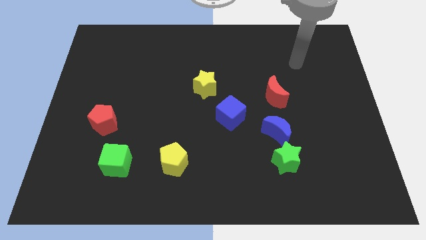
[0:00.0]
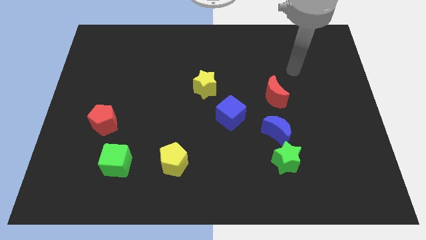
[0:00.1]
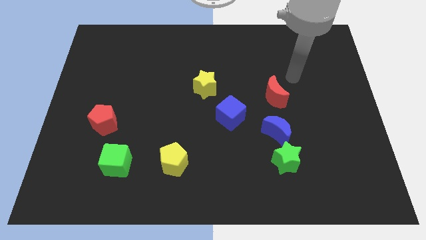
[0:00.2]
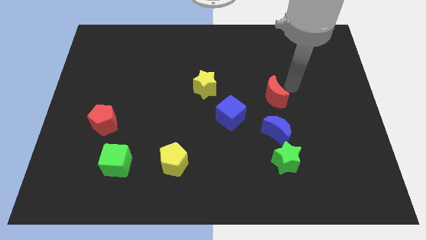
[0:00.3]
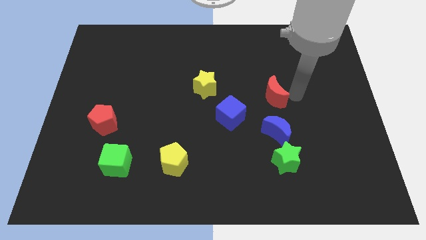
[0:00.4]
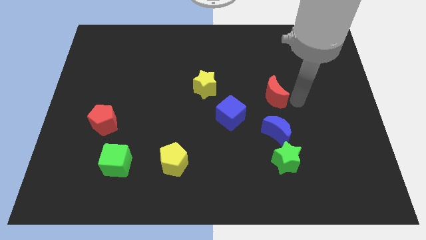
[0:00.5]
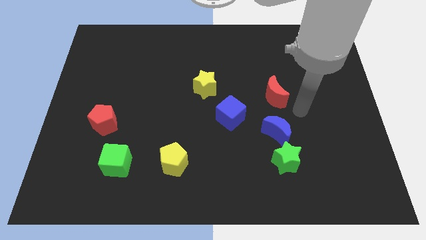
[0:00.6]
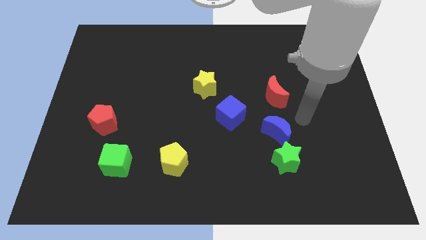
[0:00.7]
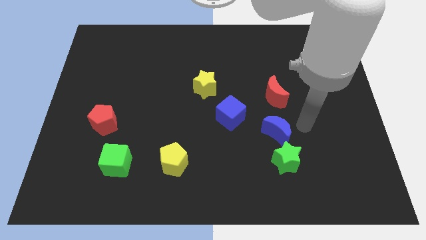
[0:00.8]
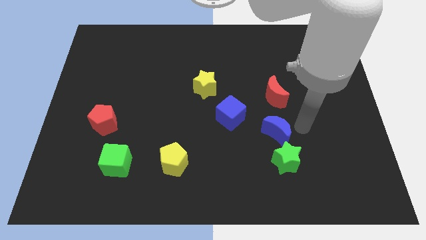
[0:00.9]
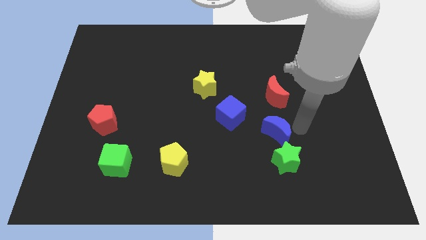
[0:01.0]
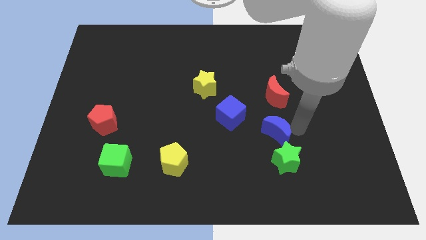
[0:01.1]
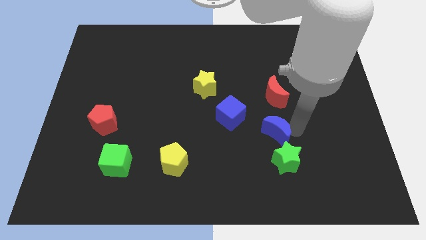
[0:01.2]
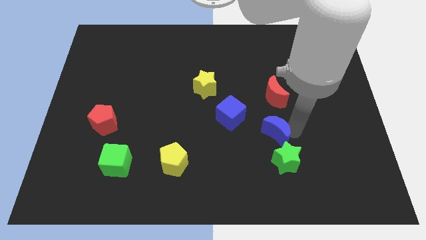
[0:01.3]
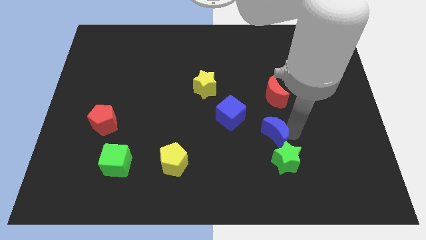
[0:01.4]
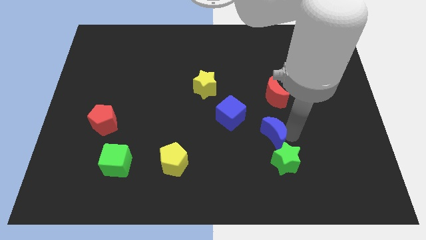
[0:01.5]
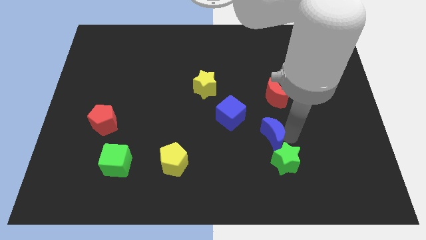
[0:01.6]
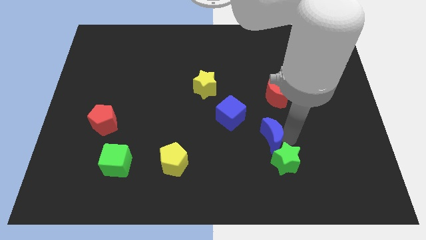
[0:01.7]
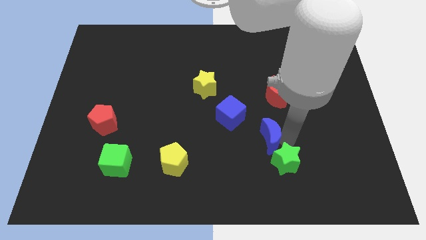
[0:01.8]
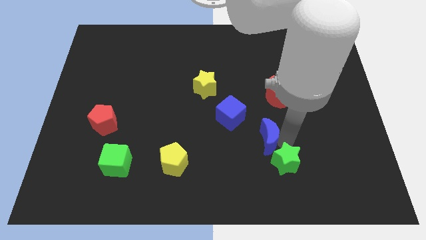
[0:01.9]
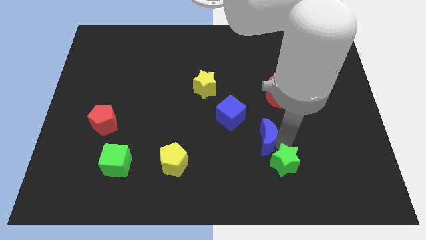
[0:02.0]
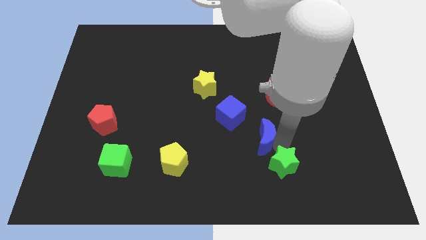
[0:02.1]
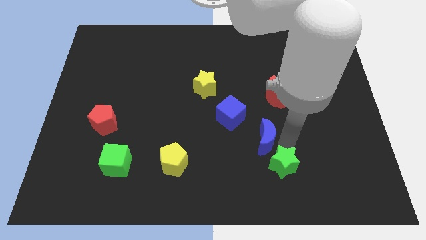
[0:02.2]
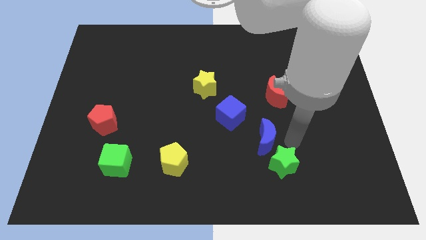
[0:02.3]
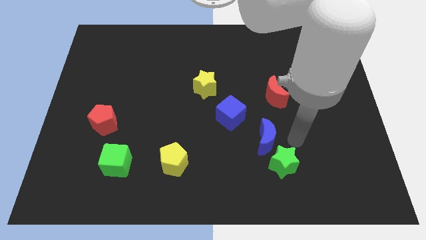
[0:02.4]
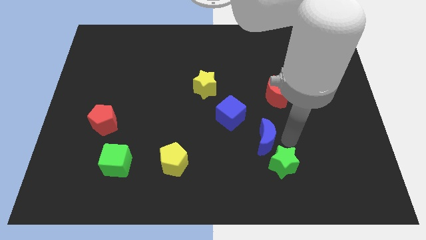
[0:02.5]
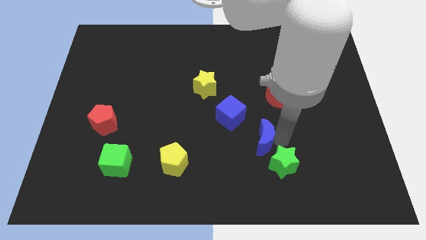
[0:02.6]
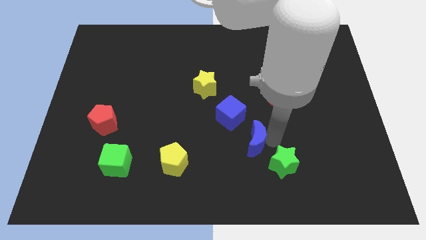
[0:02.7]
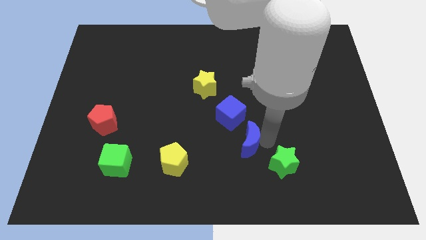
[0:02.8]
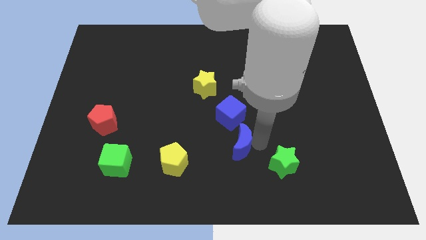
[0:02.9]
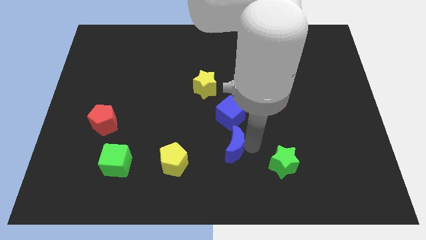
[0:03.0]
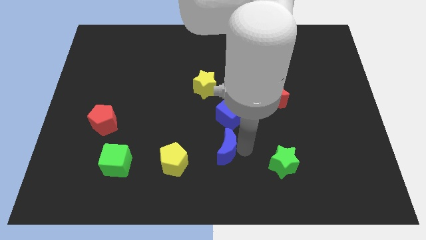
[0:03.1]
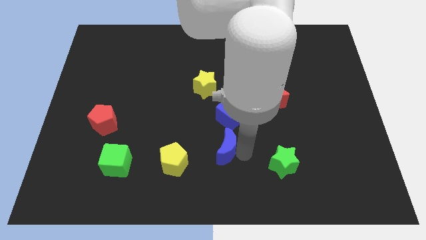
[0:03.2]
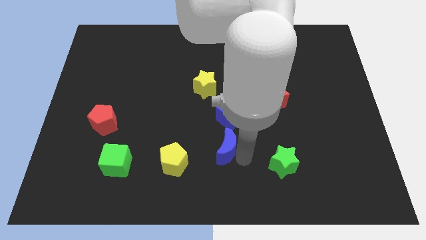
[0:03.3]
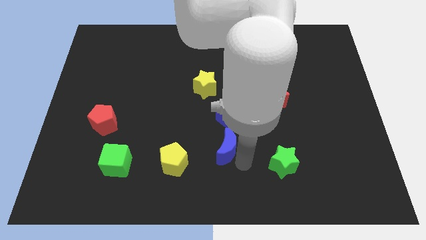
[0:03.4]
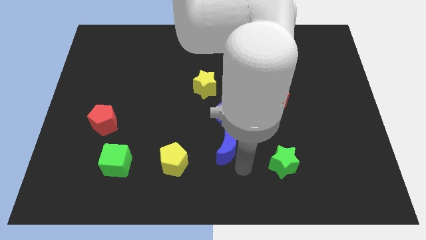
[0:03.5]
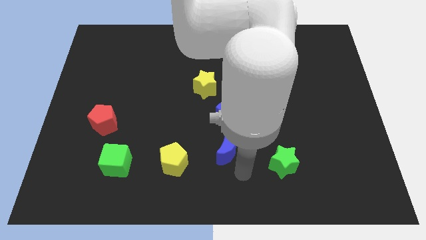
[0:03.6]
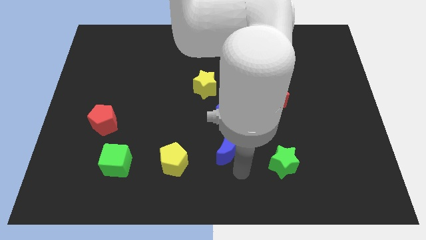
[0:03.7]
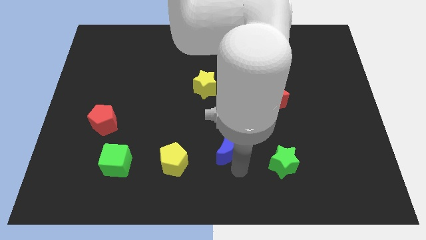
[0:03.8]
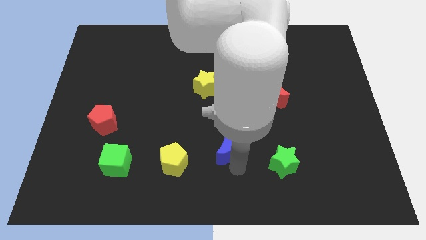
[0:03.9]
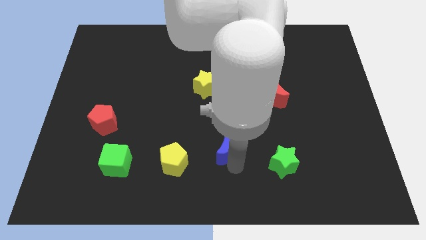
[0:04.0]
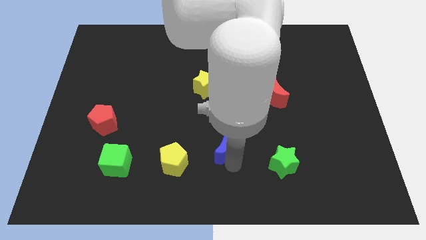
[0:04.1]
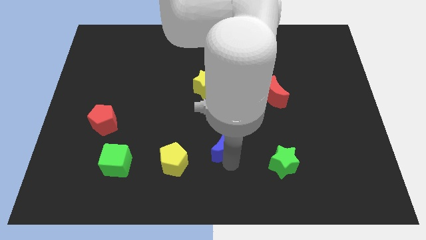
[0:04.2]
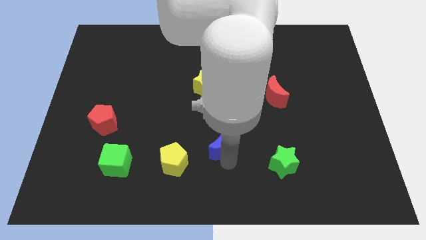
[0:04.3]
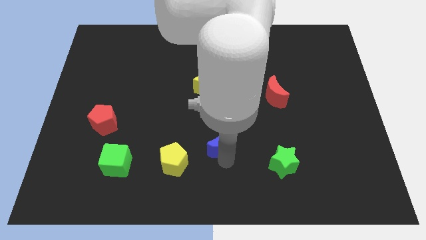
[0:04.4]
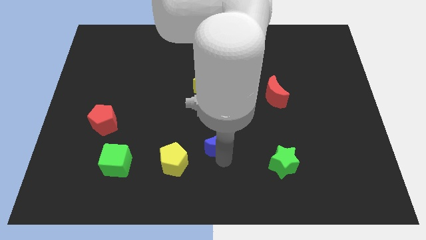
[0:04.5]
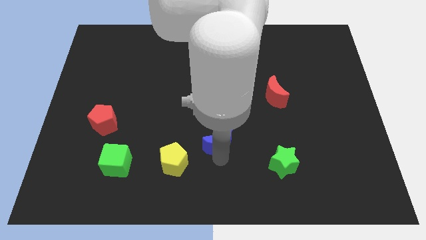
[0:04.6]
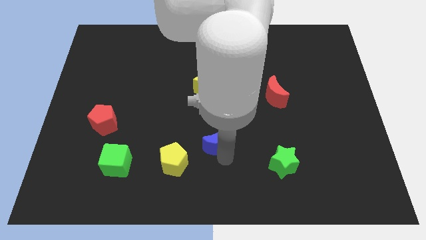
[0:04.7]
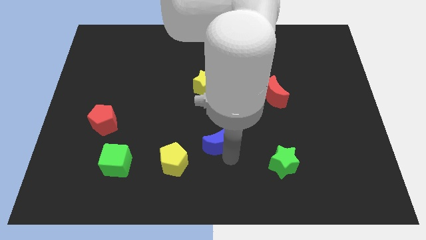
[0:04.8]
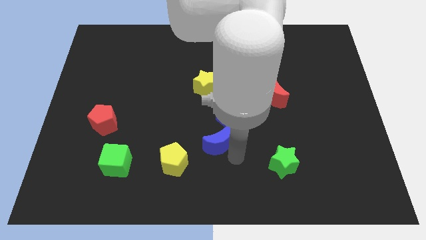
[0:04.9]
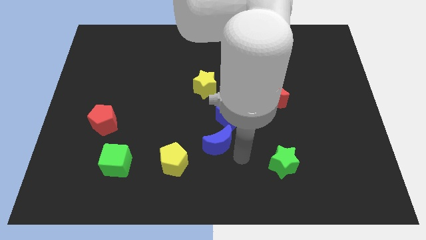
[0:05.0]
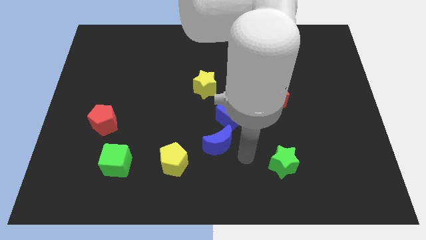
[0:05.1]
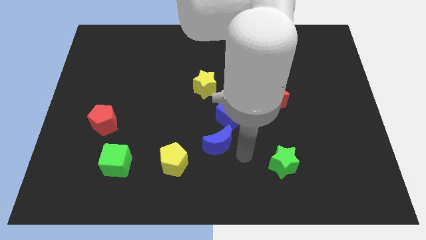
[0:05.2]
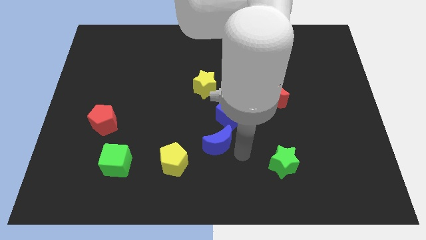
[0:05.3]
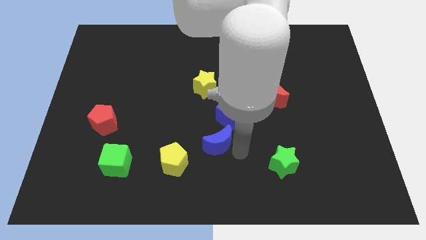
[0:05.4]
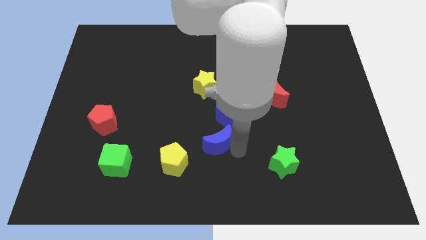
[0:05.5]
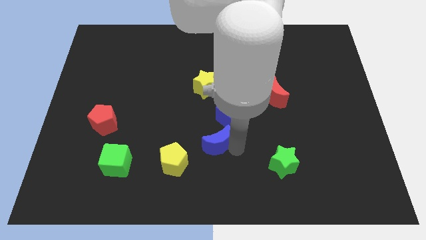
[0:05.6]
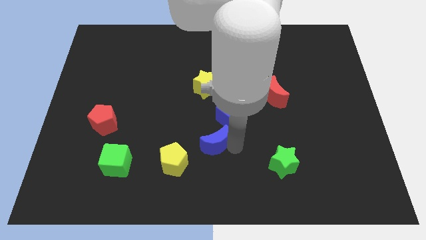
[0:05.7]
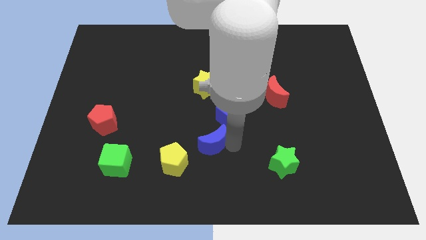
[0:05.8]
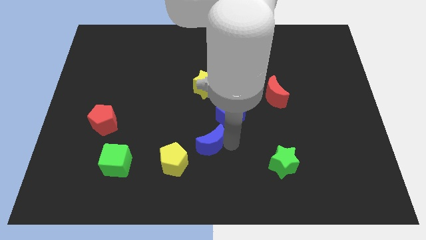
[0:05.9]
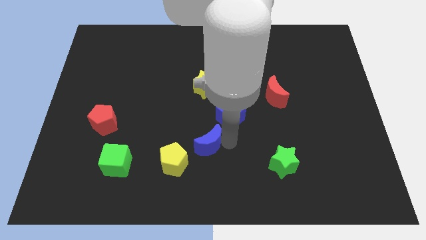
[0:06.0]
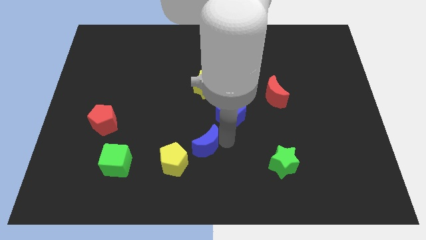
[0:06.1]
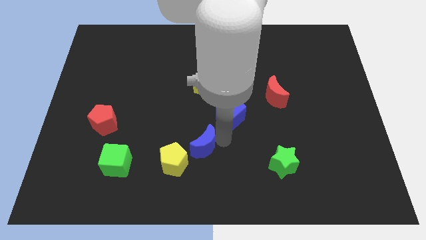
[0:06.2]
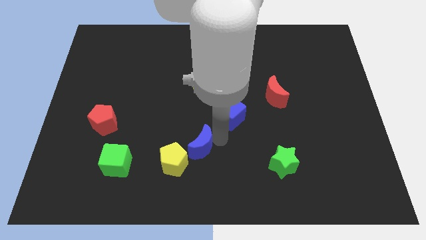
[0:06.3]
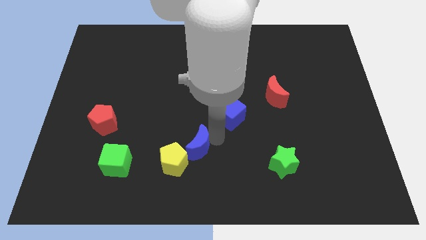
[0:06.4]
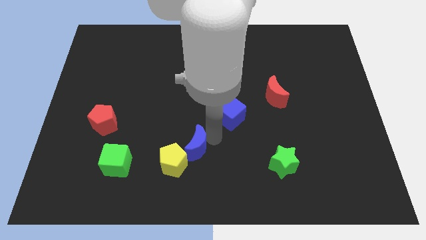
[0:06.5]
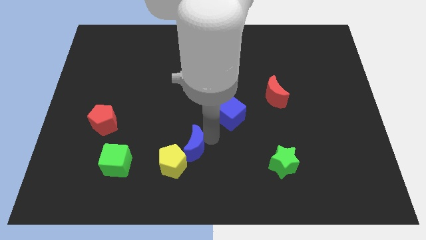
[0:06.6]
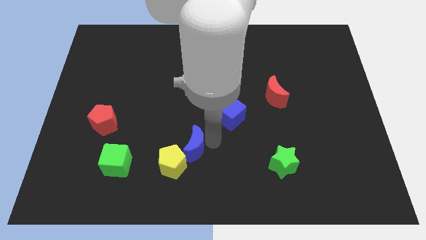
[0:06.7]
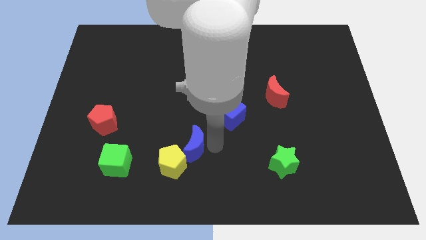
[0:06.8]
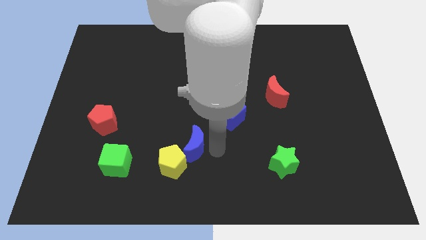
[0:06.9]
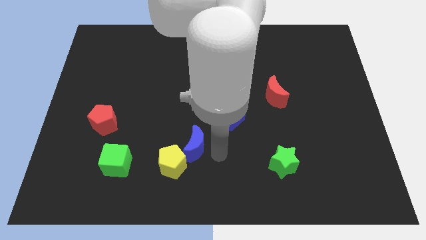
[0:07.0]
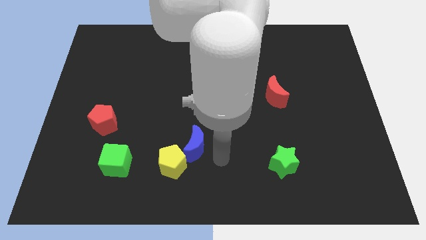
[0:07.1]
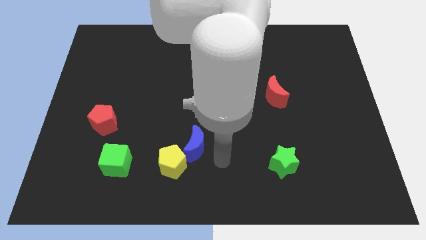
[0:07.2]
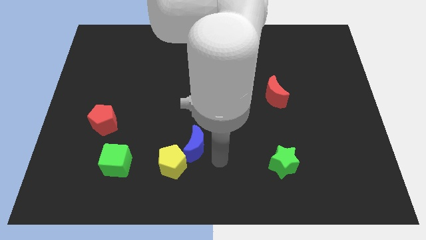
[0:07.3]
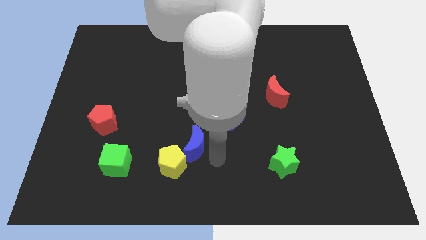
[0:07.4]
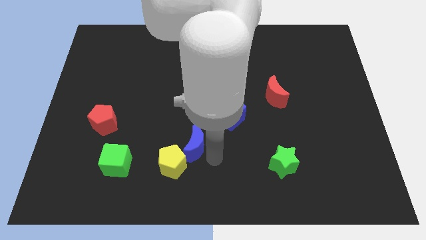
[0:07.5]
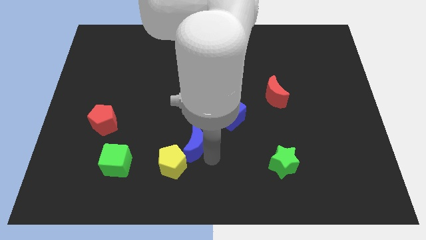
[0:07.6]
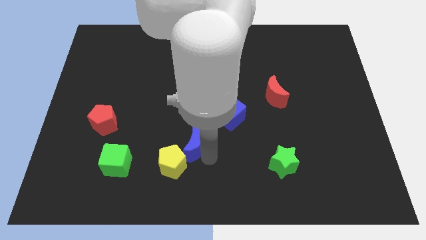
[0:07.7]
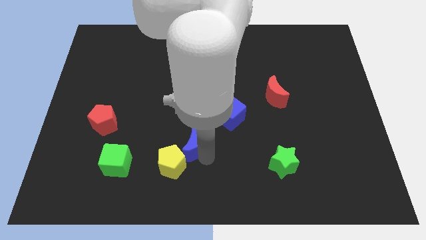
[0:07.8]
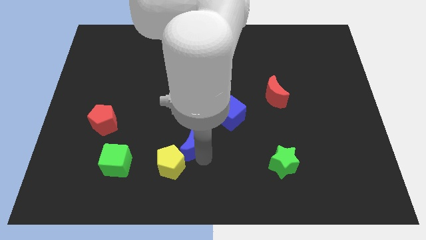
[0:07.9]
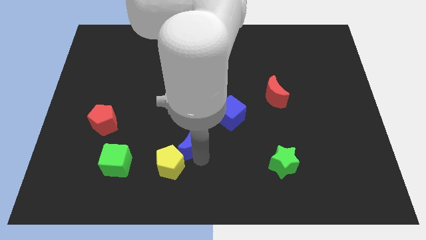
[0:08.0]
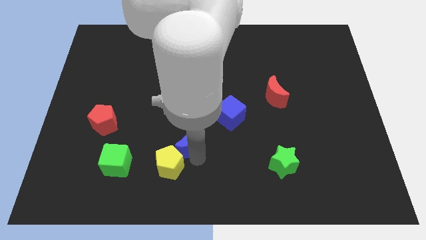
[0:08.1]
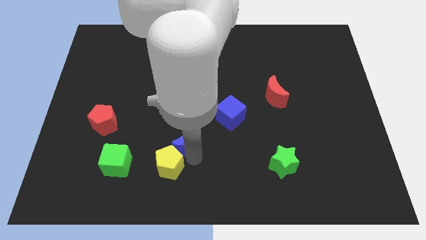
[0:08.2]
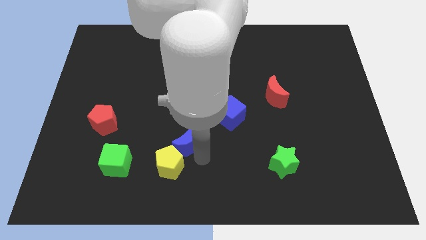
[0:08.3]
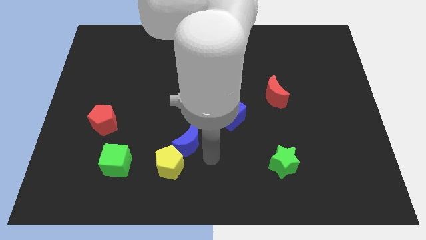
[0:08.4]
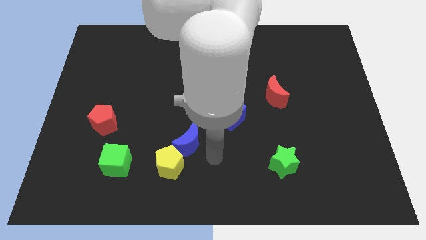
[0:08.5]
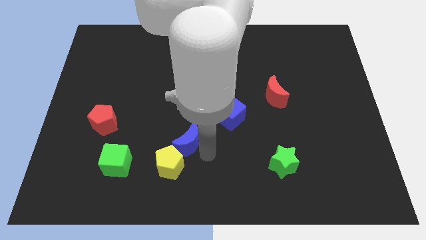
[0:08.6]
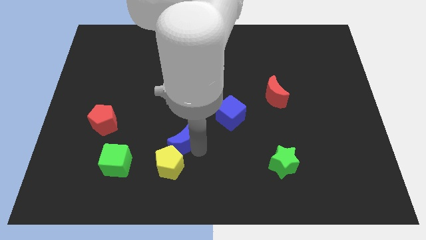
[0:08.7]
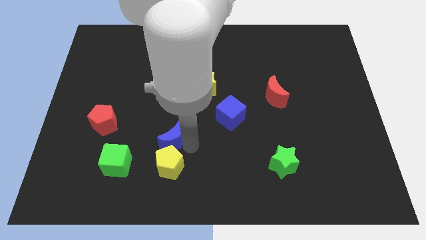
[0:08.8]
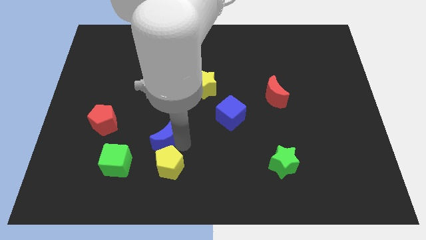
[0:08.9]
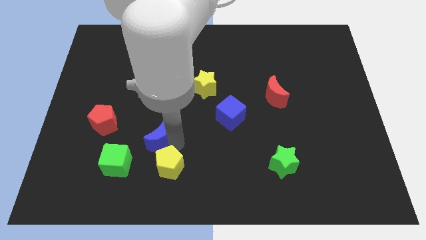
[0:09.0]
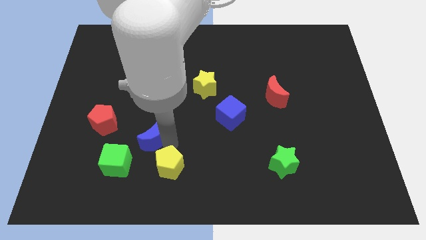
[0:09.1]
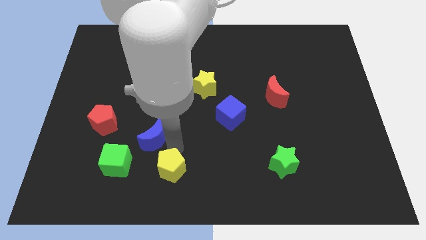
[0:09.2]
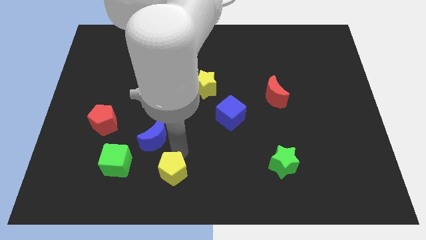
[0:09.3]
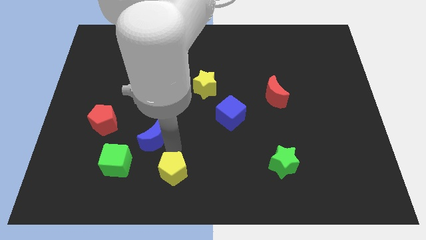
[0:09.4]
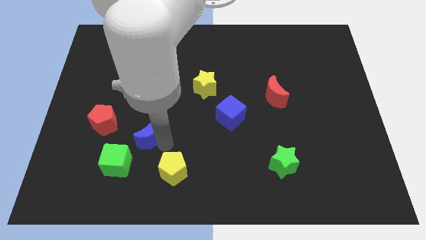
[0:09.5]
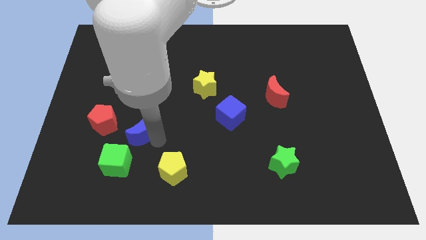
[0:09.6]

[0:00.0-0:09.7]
put the blue moon to the top side of the green cube
